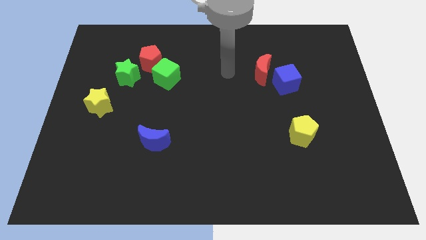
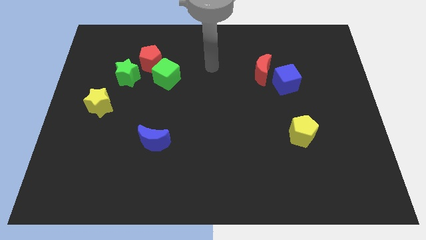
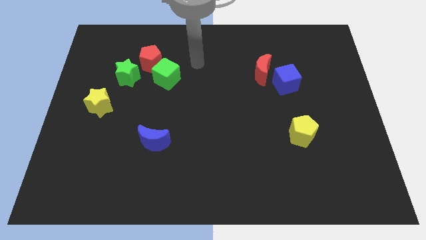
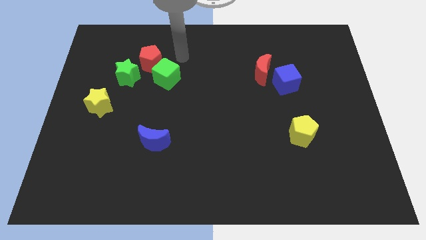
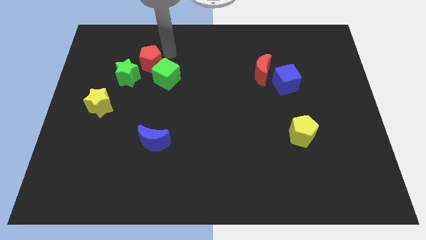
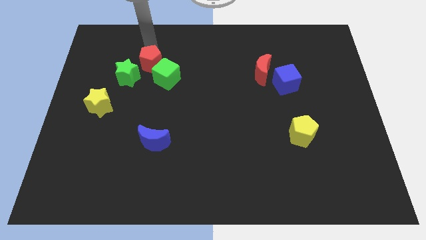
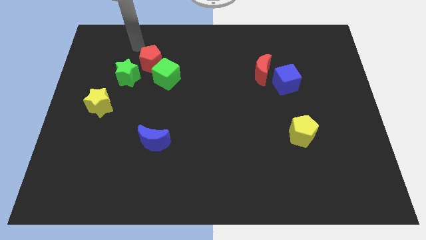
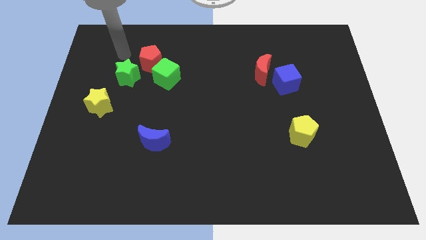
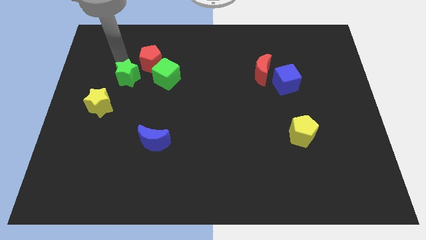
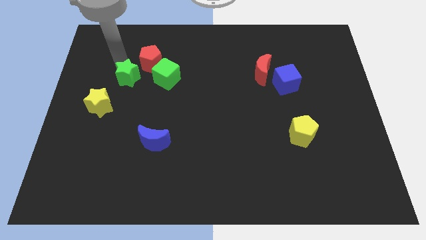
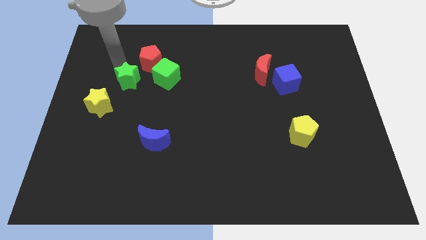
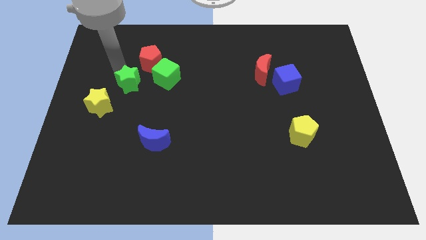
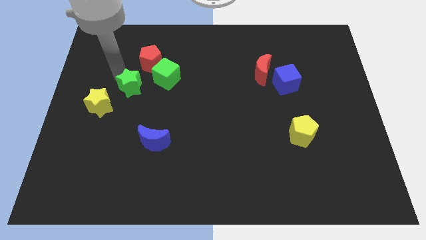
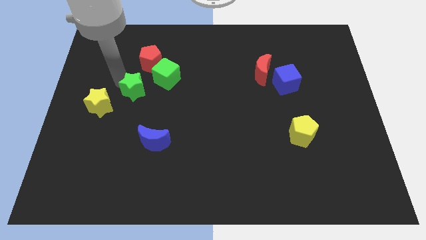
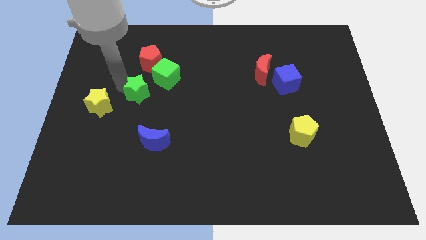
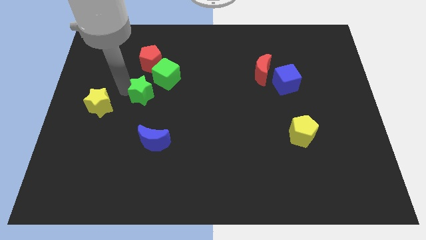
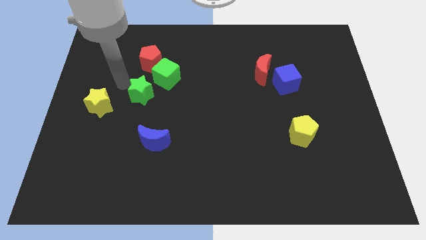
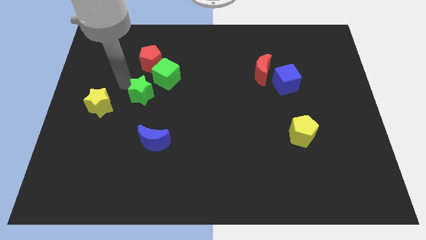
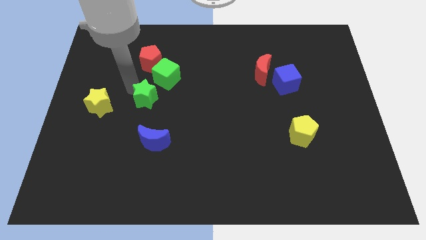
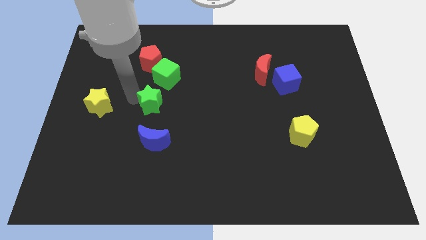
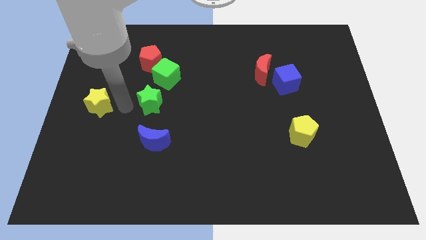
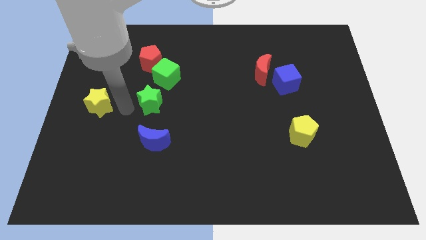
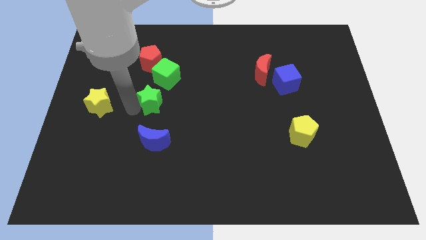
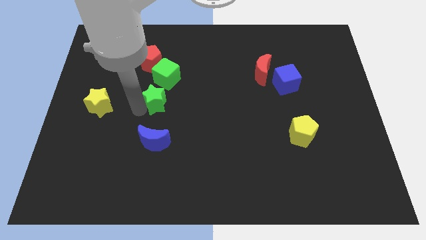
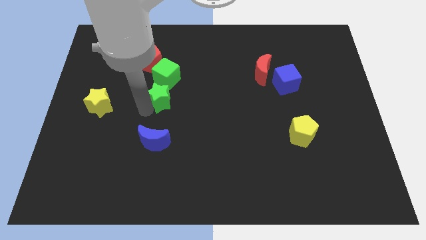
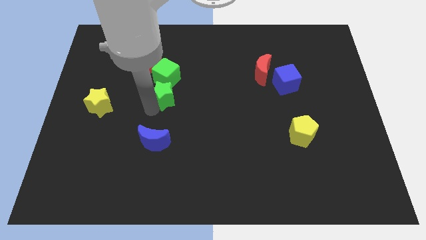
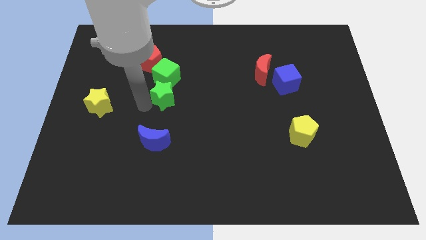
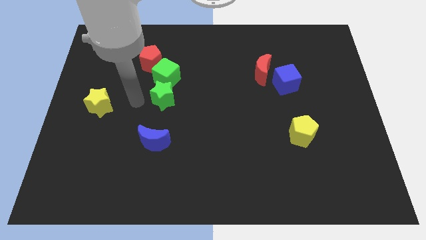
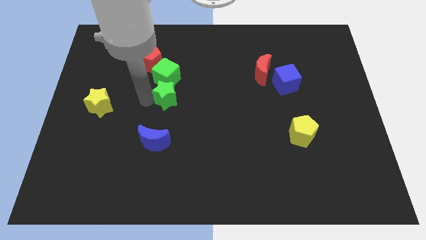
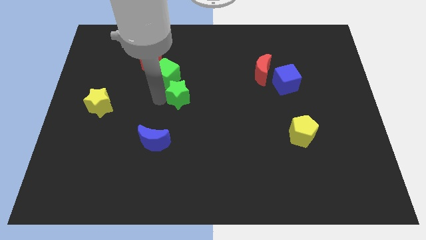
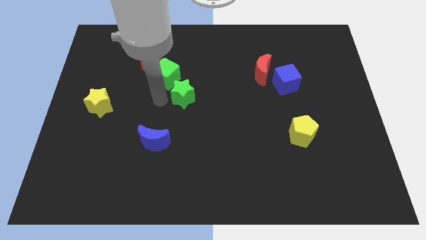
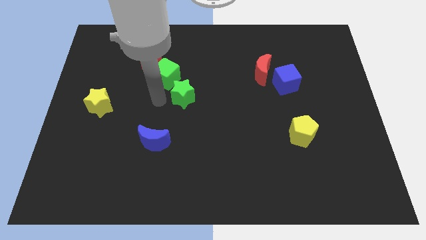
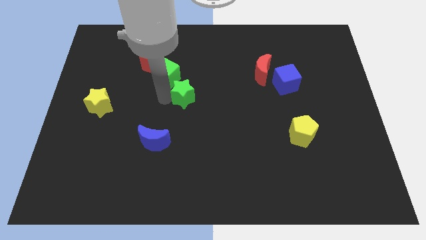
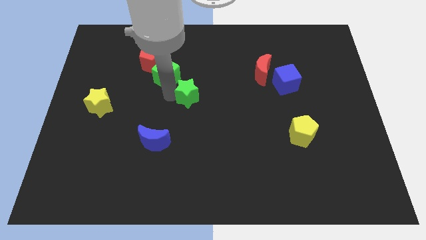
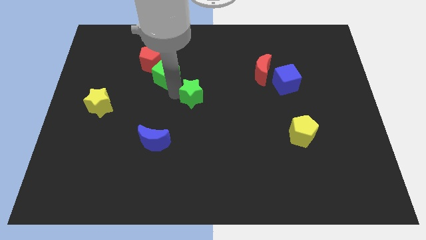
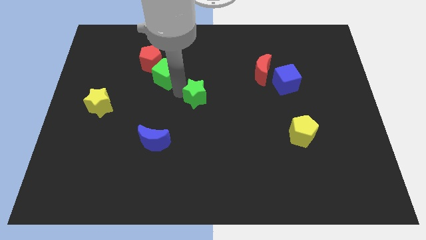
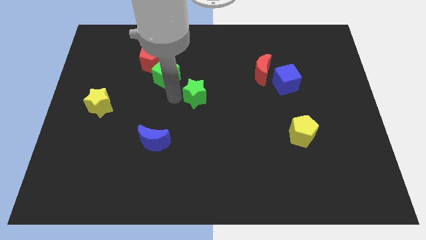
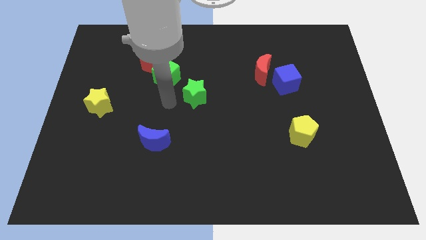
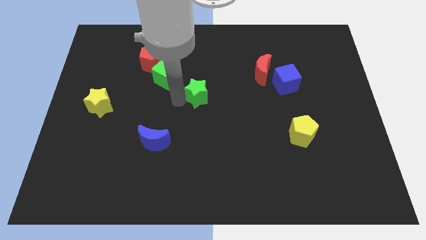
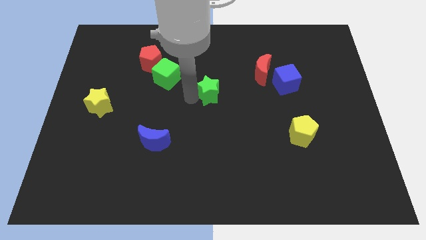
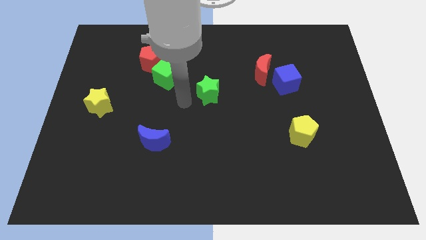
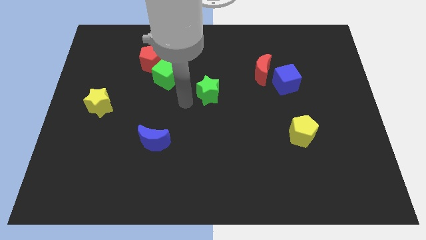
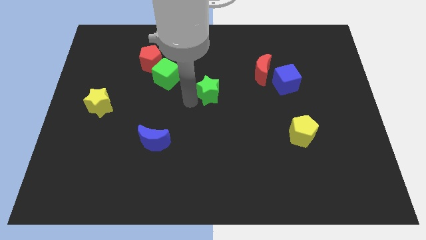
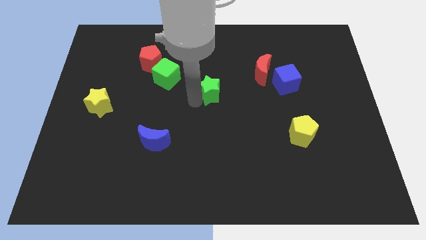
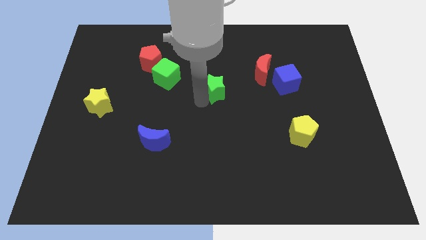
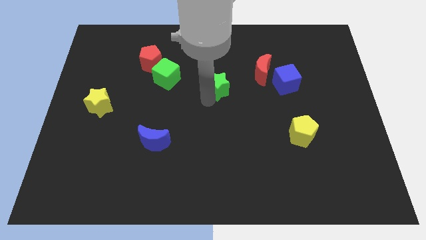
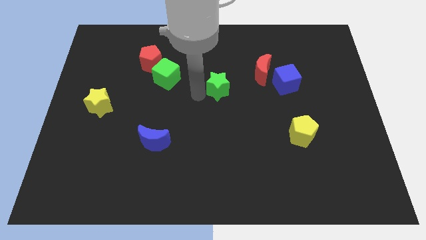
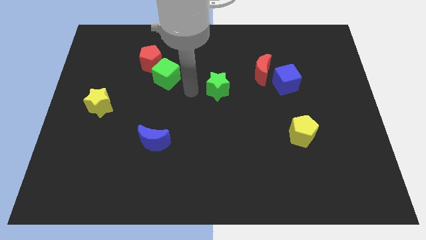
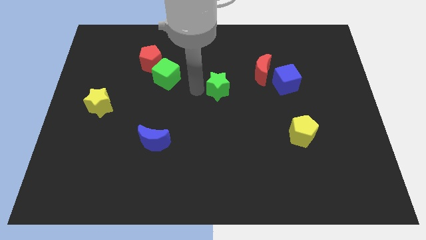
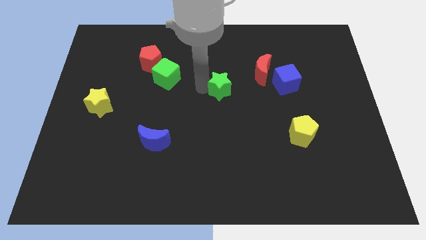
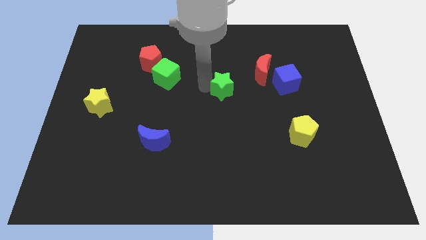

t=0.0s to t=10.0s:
push the green star to the bottom left side of the red moon

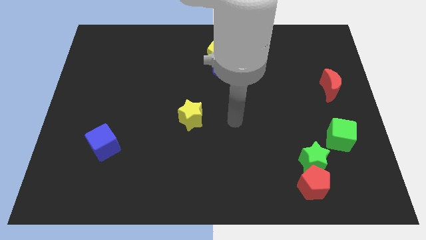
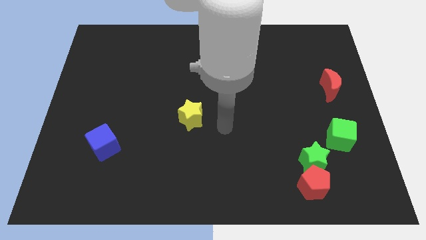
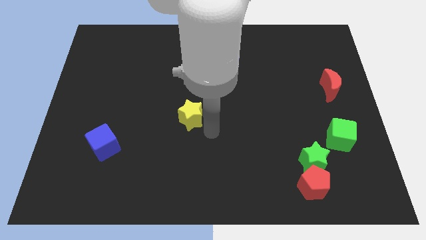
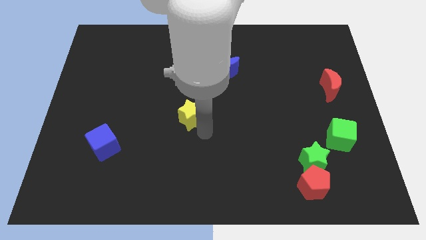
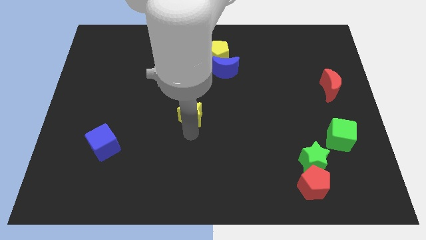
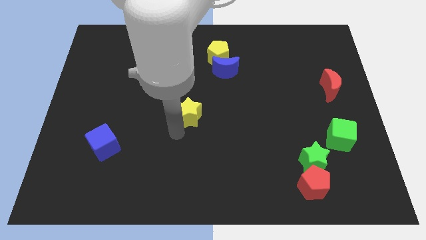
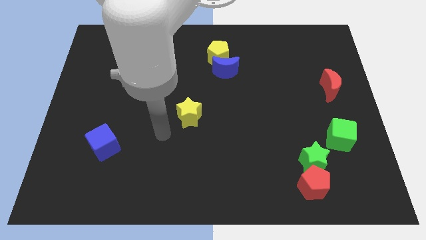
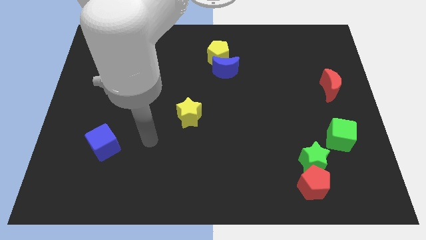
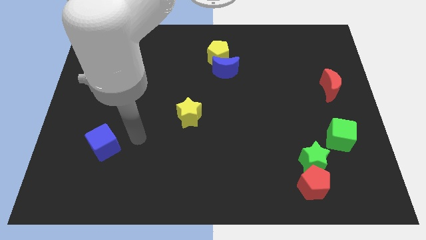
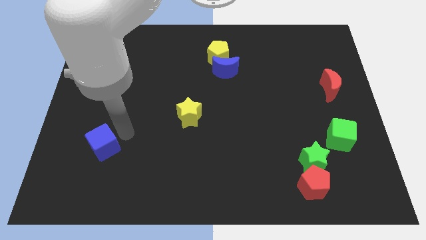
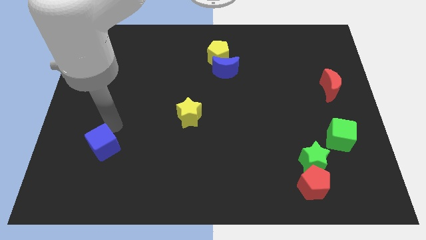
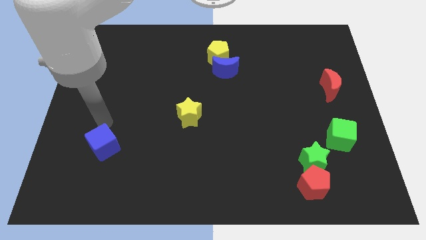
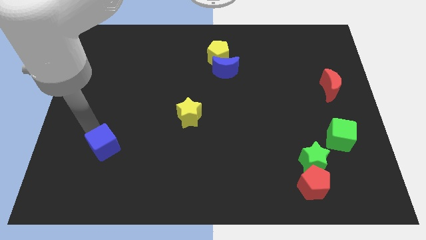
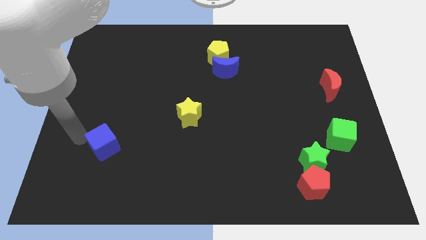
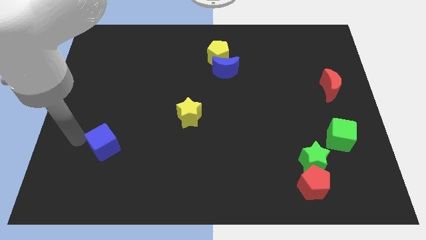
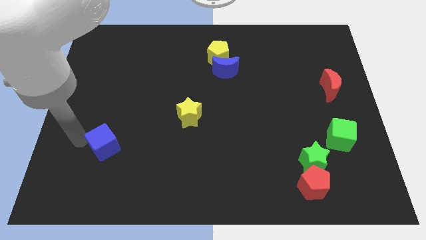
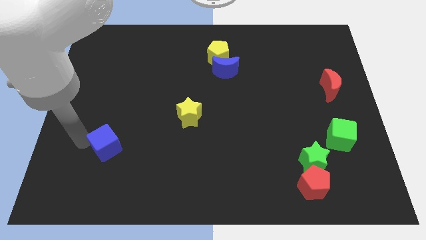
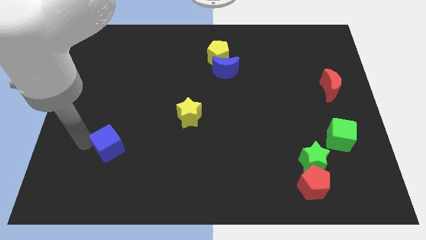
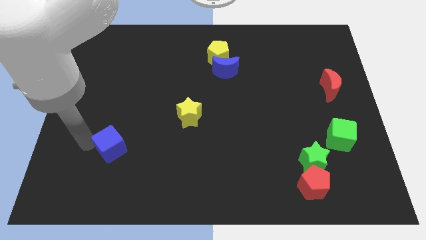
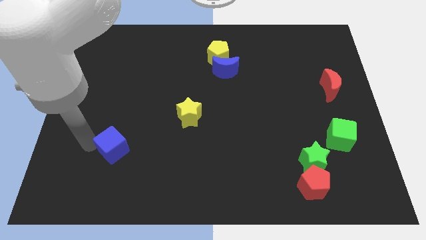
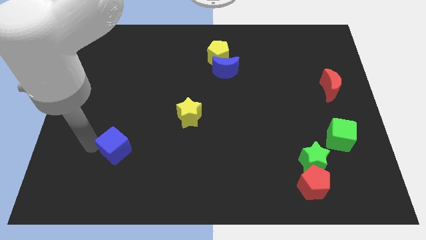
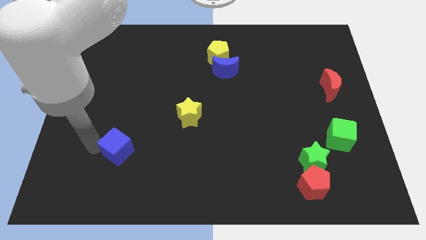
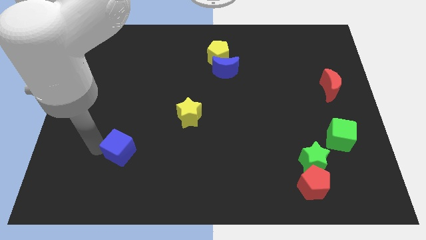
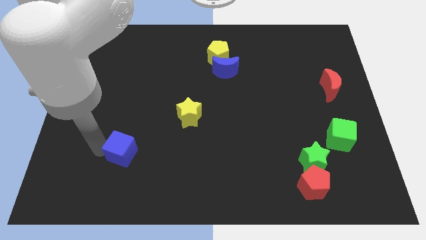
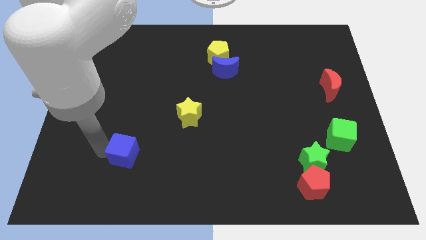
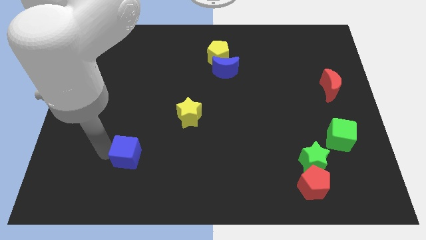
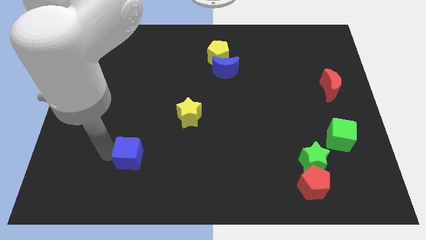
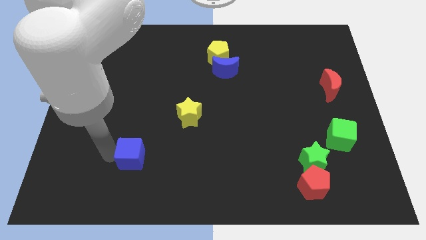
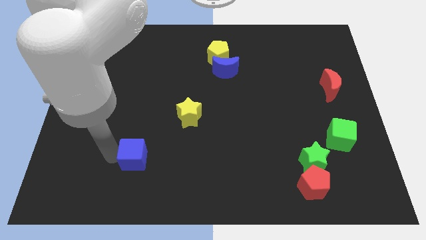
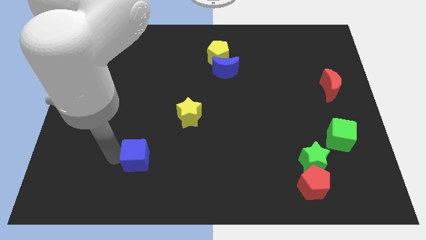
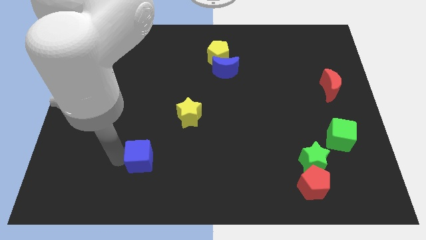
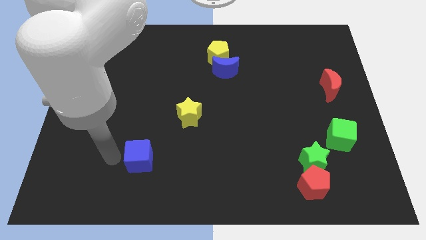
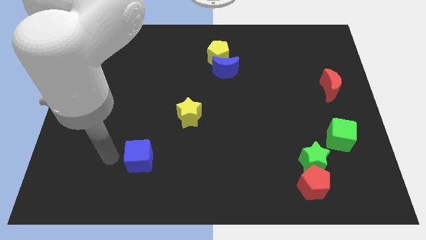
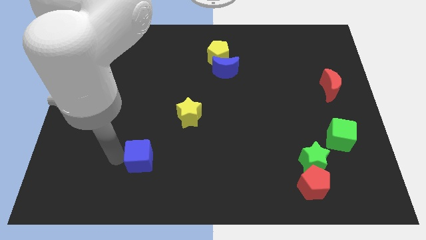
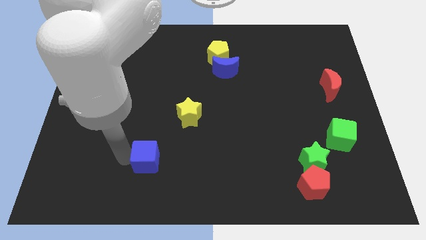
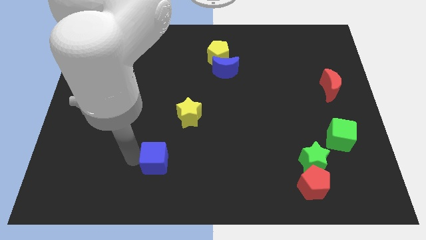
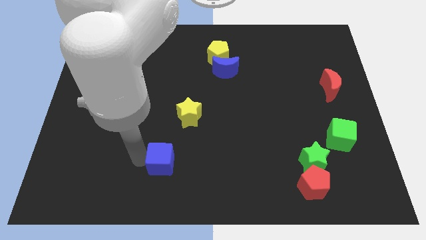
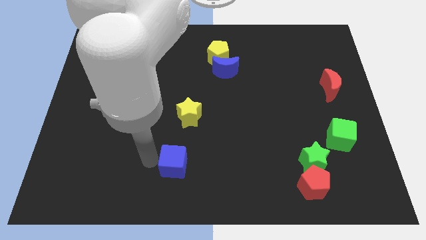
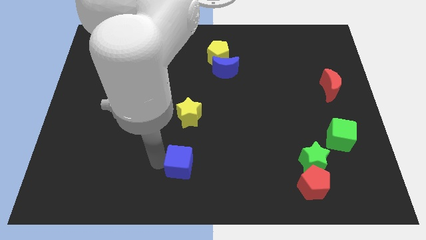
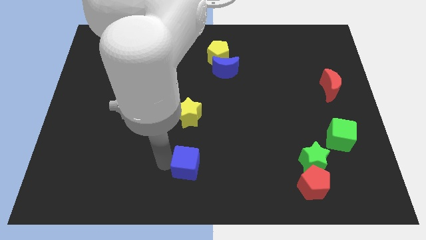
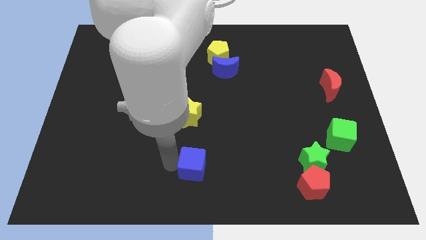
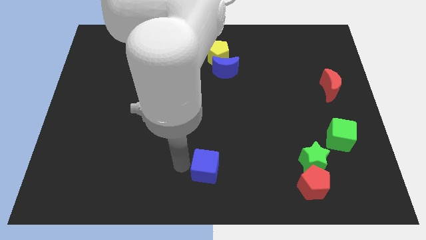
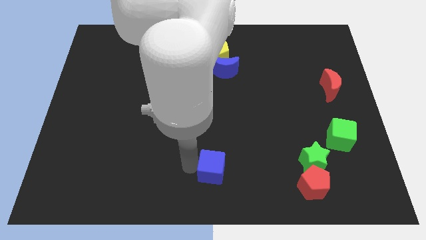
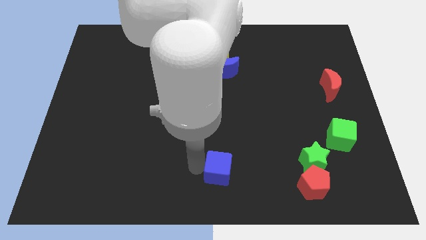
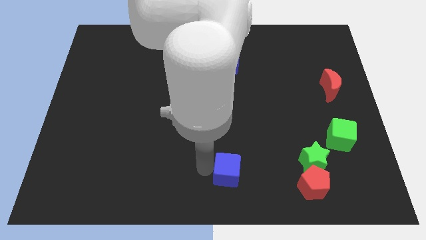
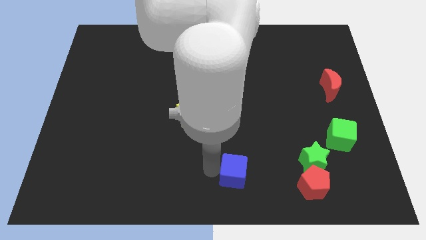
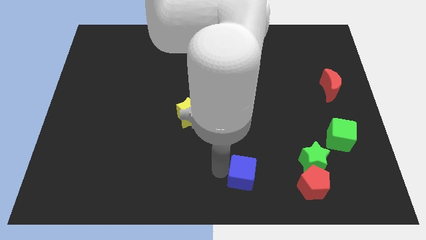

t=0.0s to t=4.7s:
push the blue cube left of the red pentagon
